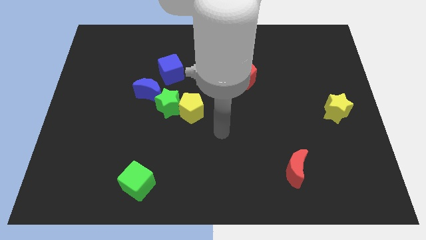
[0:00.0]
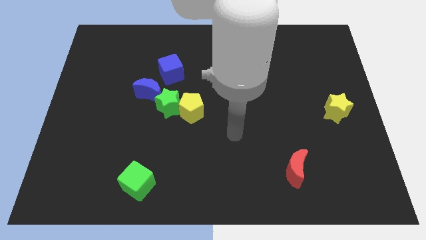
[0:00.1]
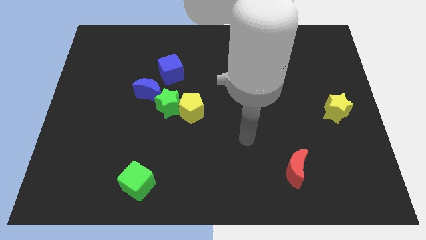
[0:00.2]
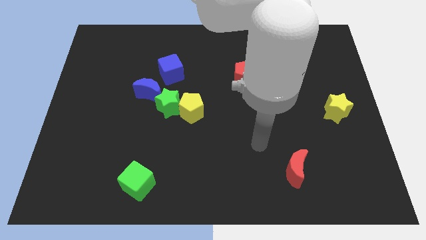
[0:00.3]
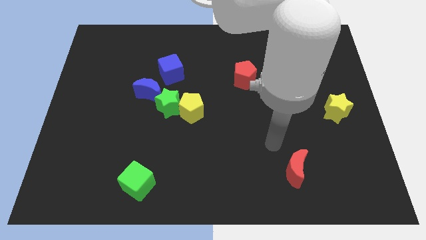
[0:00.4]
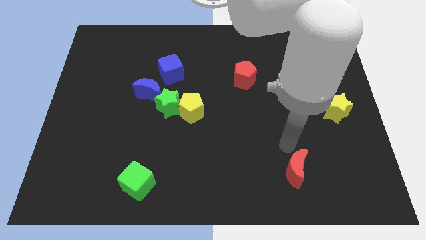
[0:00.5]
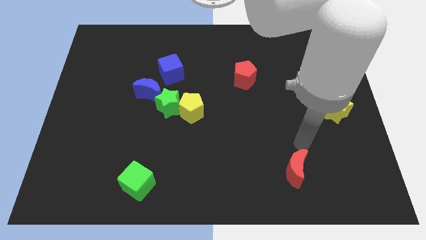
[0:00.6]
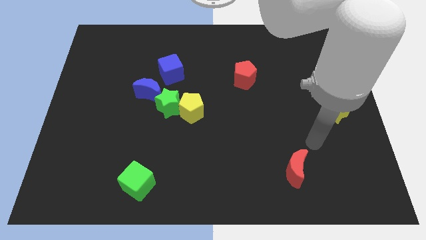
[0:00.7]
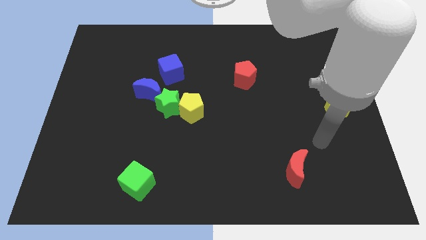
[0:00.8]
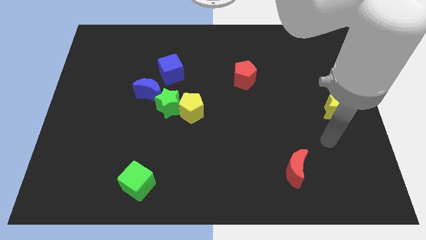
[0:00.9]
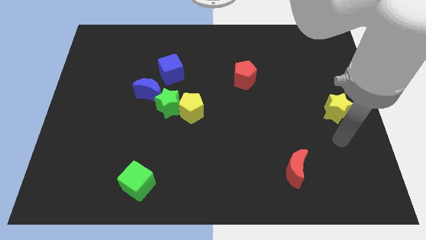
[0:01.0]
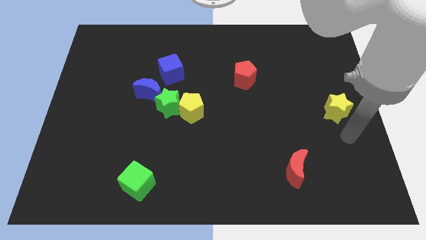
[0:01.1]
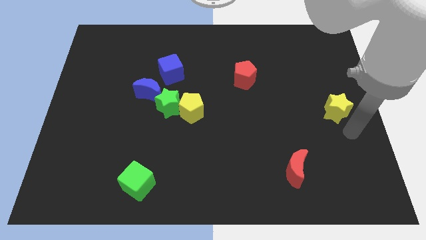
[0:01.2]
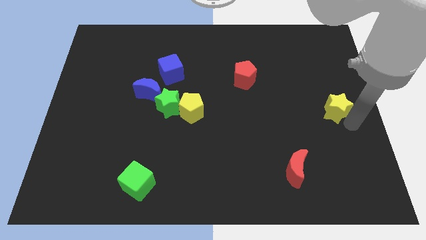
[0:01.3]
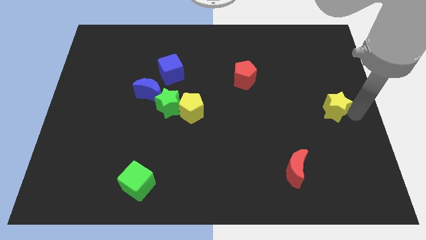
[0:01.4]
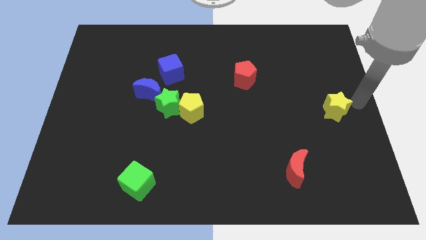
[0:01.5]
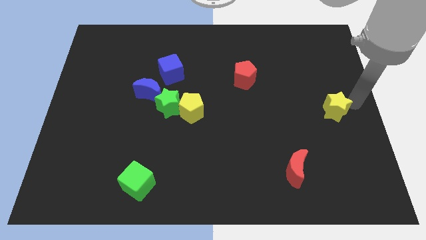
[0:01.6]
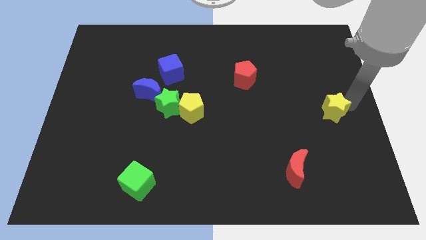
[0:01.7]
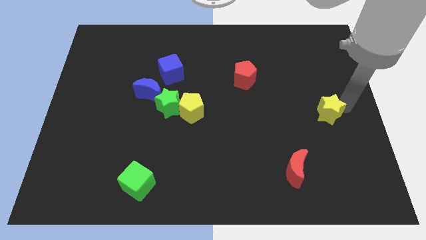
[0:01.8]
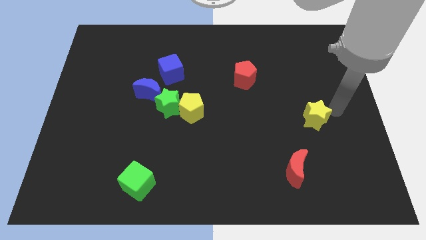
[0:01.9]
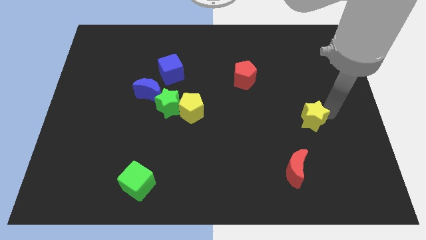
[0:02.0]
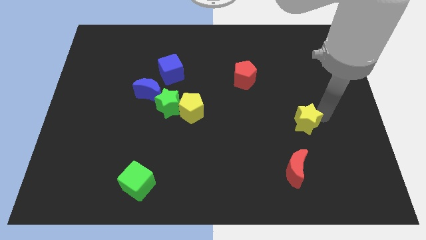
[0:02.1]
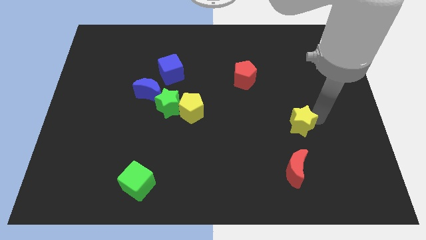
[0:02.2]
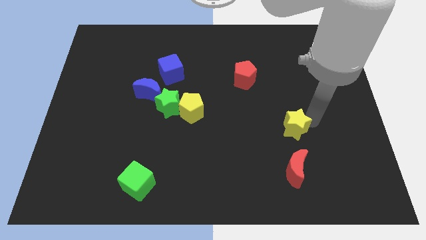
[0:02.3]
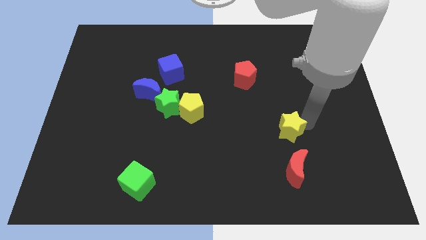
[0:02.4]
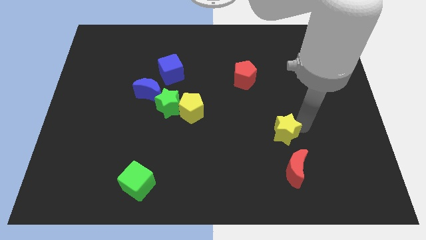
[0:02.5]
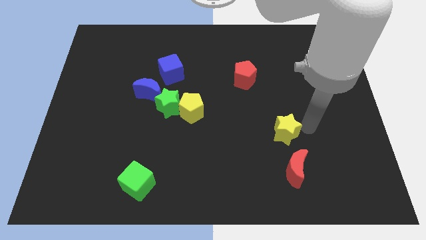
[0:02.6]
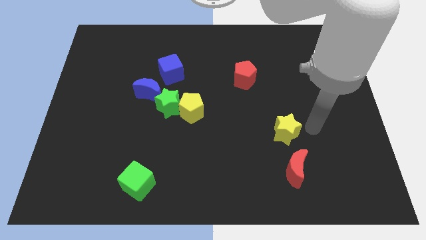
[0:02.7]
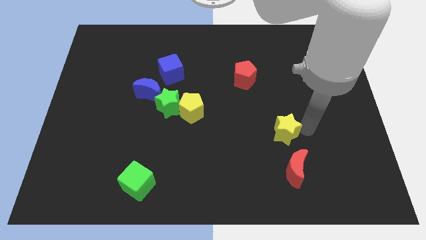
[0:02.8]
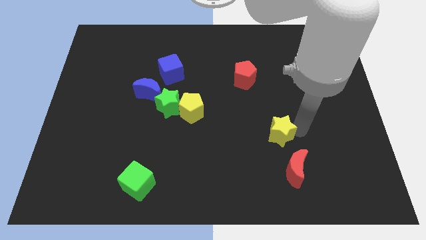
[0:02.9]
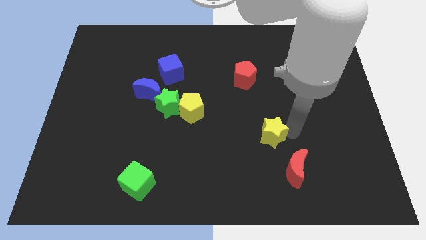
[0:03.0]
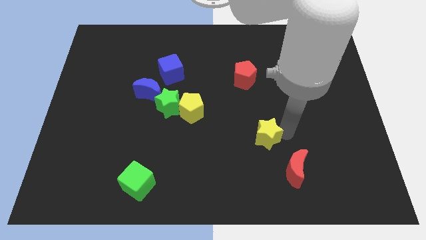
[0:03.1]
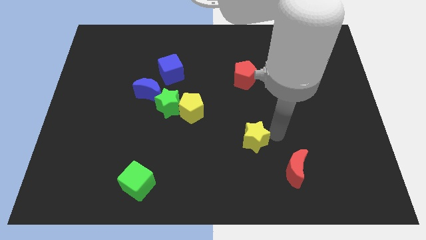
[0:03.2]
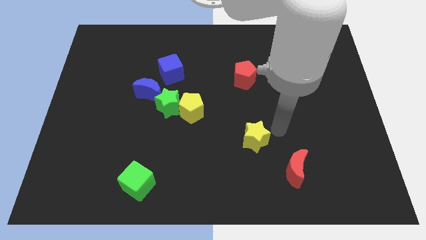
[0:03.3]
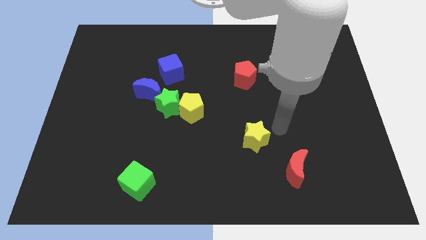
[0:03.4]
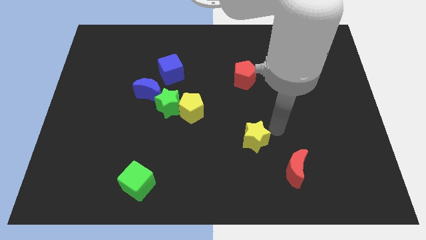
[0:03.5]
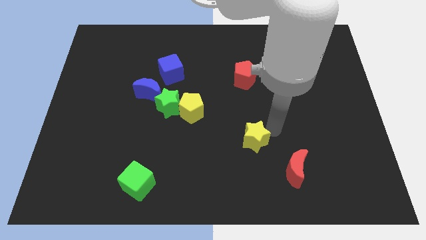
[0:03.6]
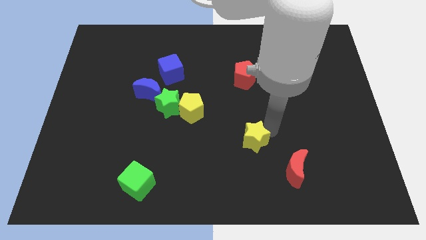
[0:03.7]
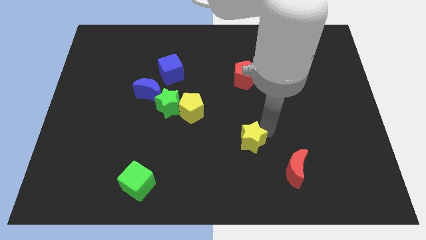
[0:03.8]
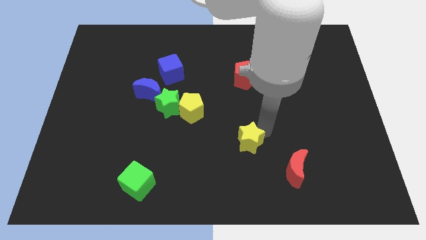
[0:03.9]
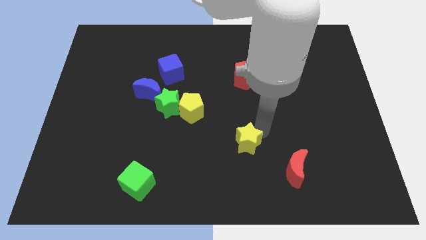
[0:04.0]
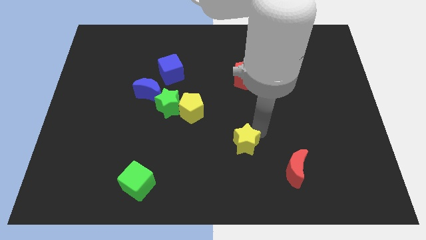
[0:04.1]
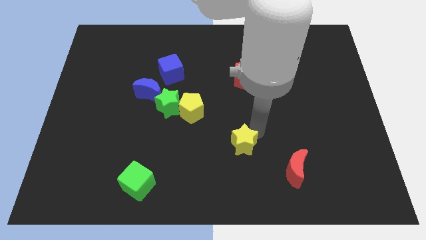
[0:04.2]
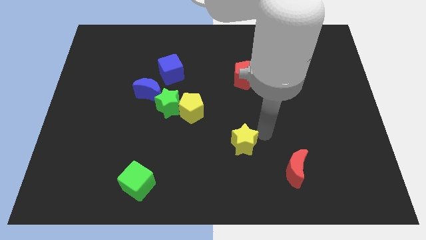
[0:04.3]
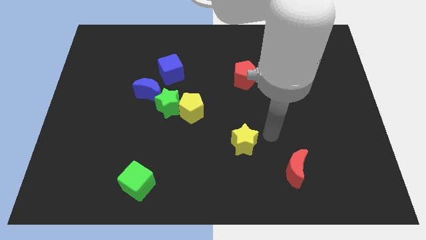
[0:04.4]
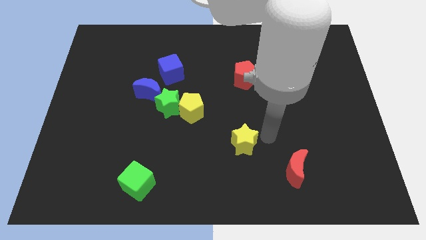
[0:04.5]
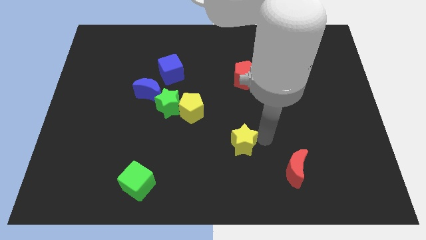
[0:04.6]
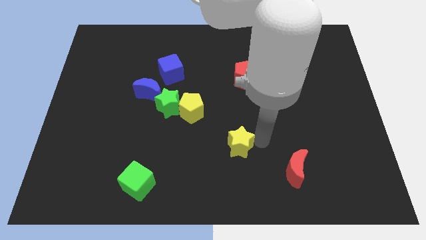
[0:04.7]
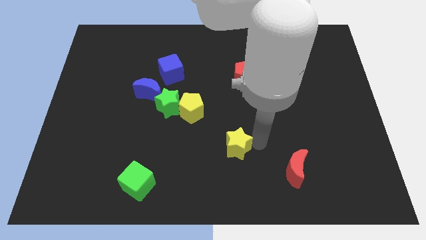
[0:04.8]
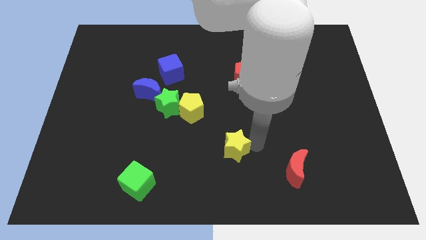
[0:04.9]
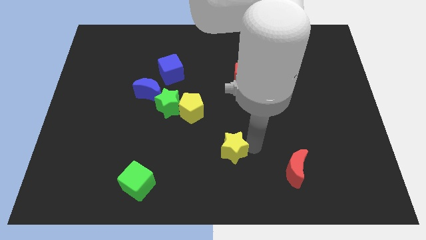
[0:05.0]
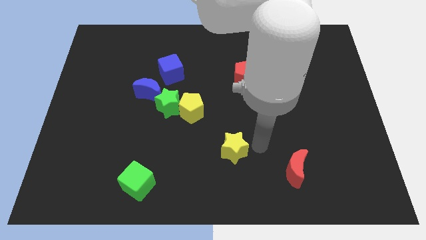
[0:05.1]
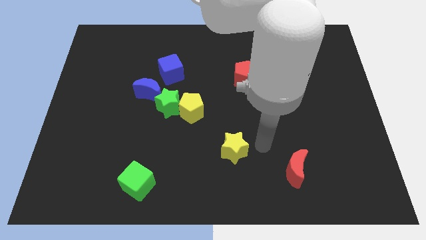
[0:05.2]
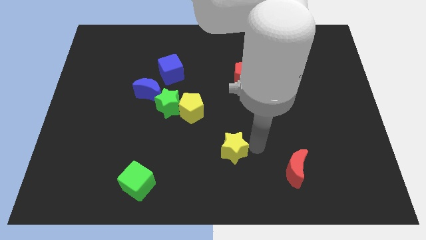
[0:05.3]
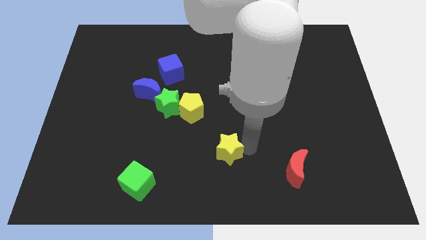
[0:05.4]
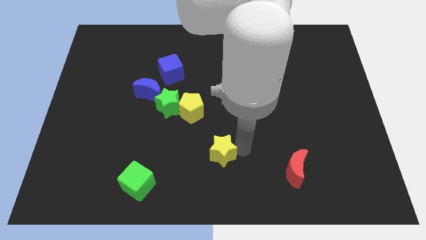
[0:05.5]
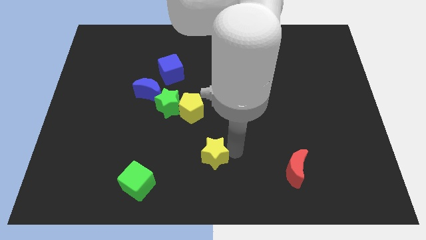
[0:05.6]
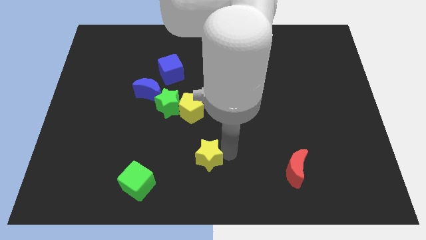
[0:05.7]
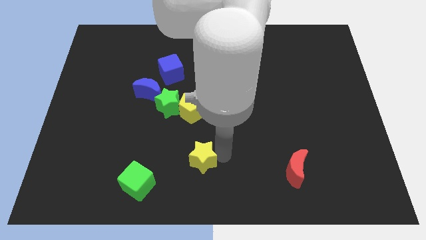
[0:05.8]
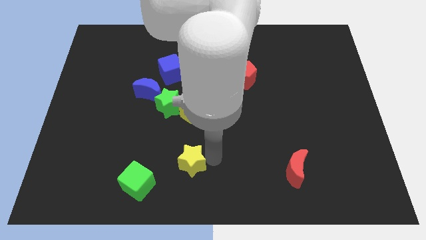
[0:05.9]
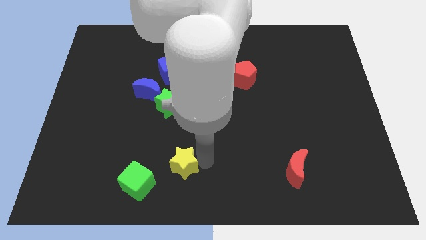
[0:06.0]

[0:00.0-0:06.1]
push the yellow star to the top right of the green cube

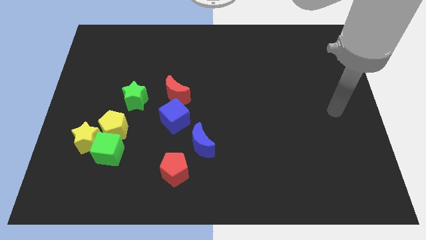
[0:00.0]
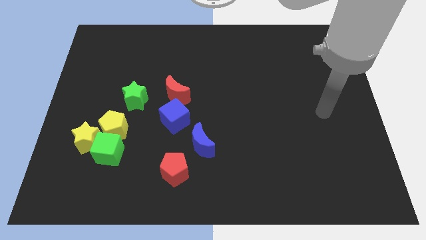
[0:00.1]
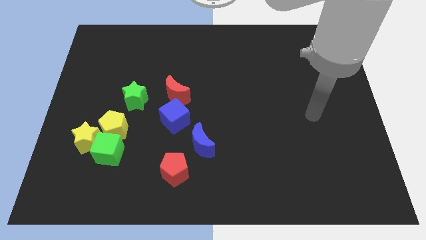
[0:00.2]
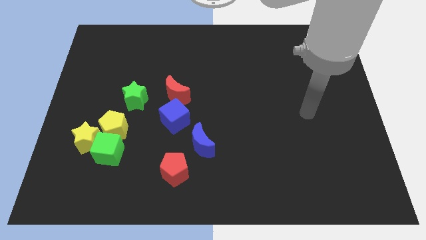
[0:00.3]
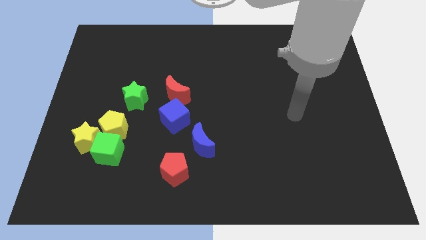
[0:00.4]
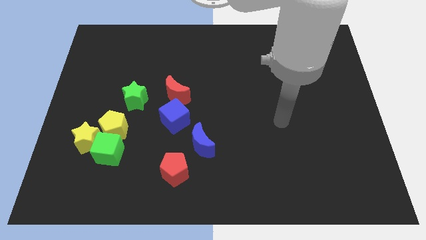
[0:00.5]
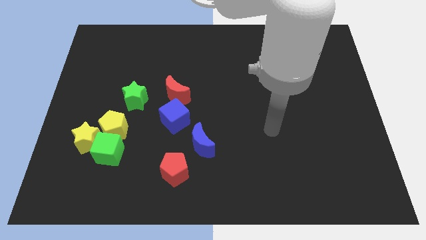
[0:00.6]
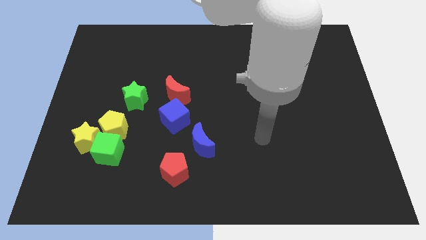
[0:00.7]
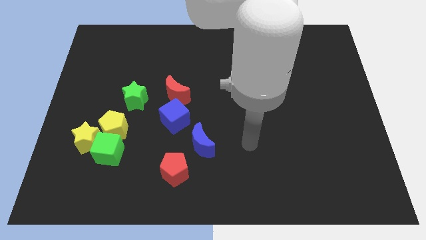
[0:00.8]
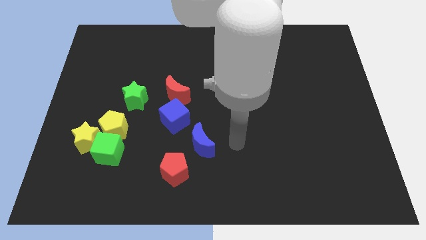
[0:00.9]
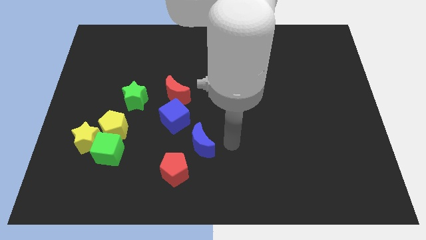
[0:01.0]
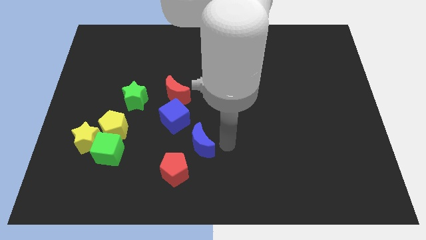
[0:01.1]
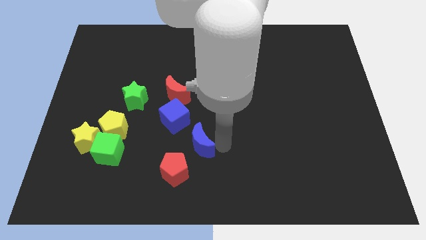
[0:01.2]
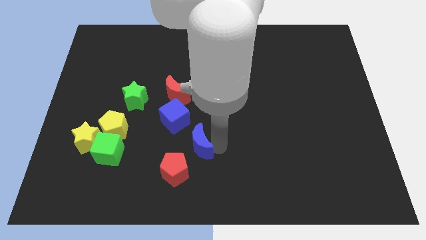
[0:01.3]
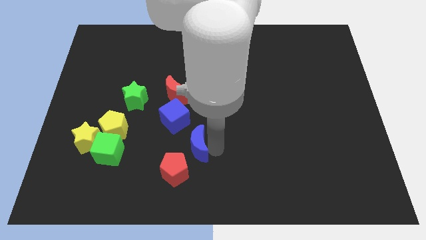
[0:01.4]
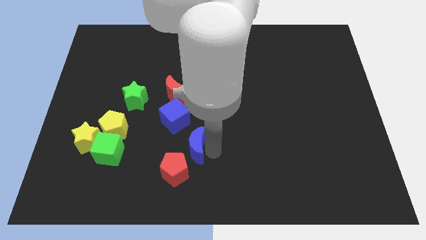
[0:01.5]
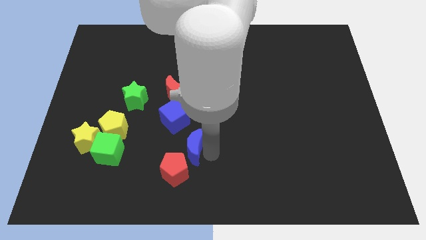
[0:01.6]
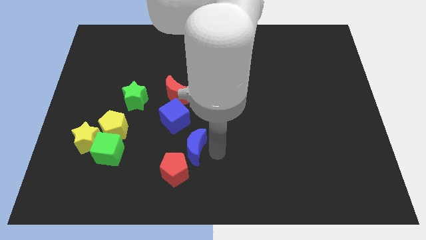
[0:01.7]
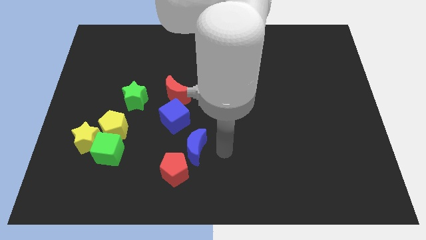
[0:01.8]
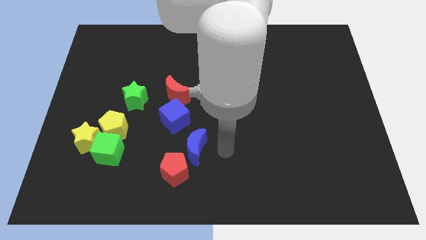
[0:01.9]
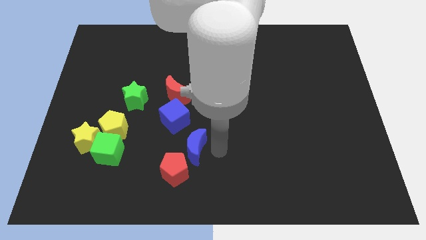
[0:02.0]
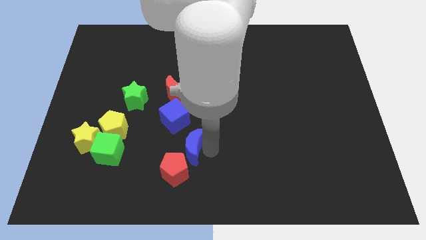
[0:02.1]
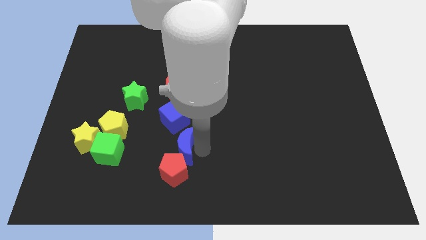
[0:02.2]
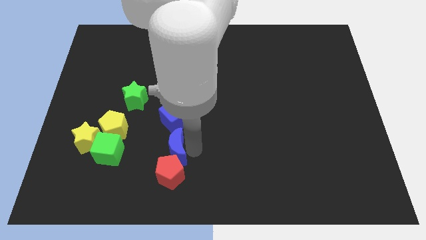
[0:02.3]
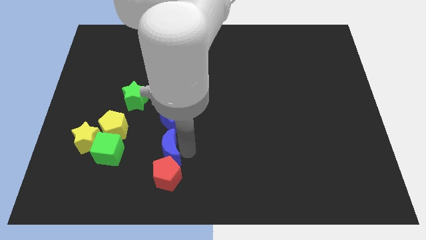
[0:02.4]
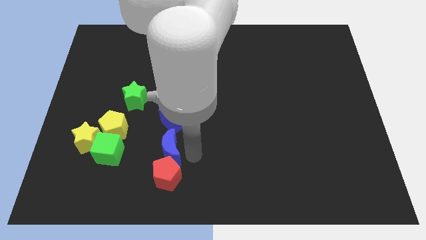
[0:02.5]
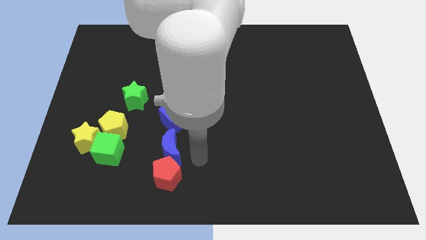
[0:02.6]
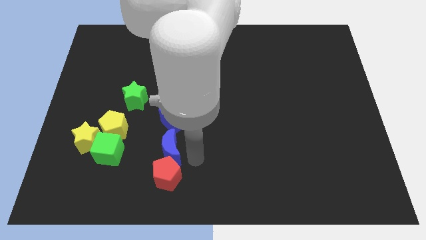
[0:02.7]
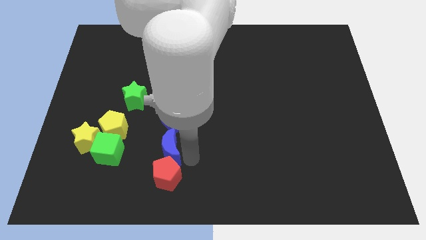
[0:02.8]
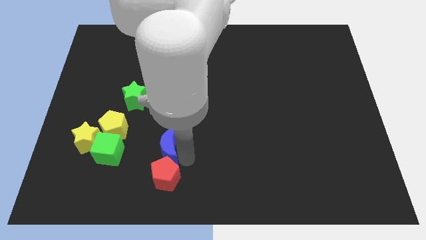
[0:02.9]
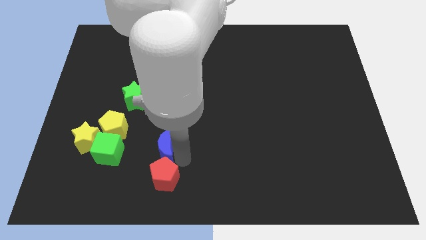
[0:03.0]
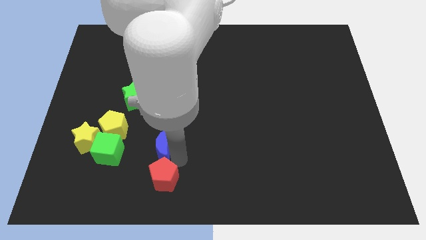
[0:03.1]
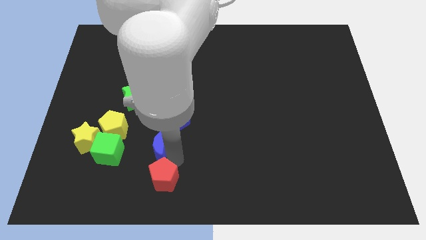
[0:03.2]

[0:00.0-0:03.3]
move the blue moon right of the yellow star
